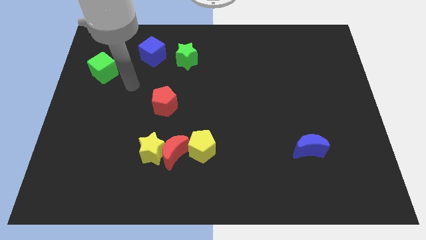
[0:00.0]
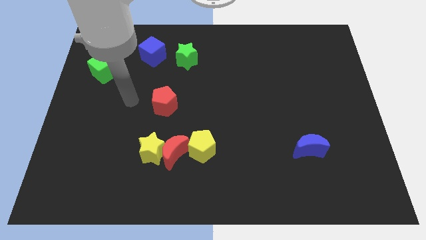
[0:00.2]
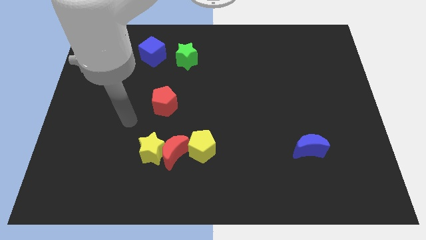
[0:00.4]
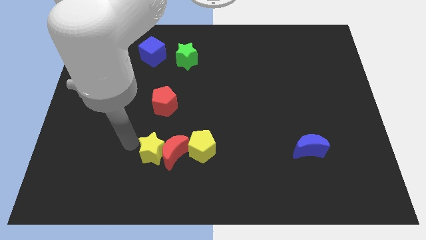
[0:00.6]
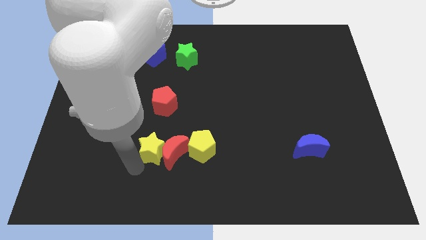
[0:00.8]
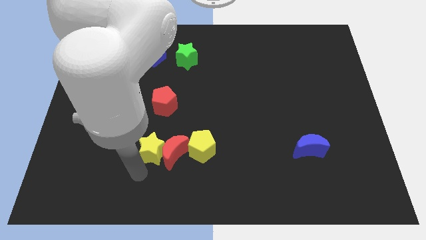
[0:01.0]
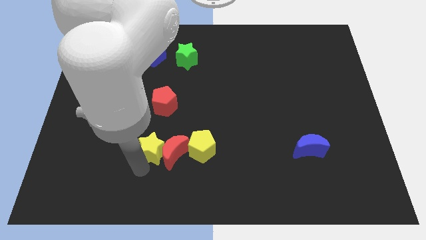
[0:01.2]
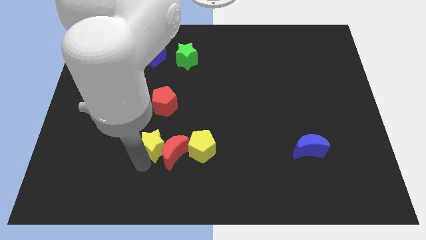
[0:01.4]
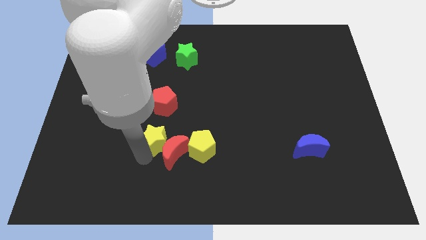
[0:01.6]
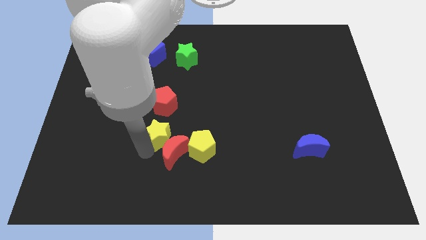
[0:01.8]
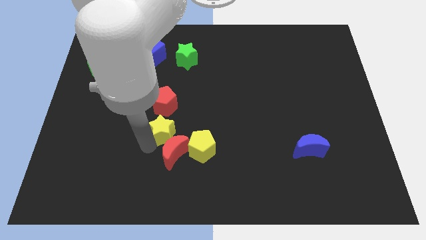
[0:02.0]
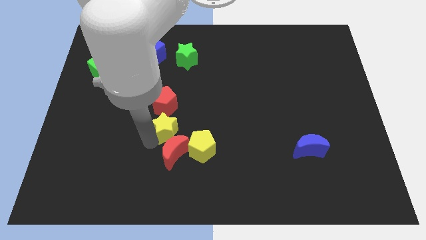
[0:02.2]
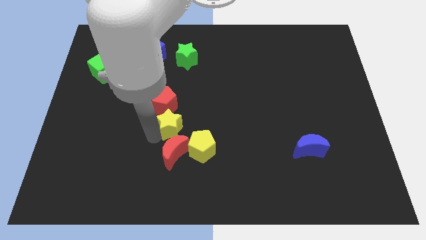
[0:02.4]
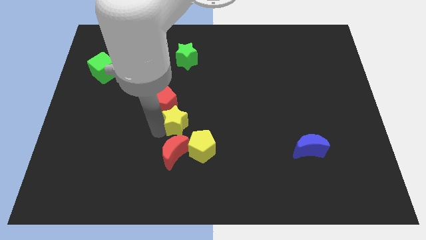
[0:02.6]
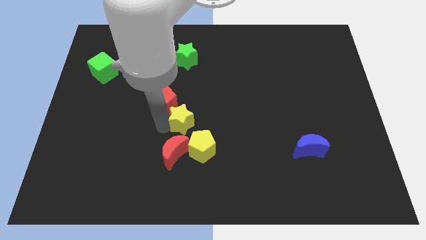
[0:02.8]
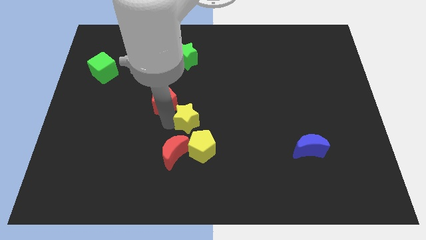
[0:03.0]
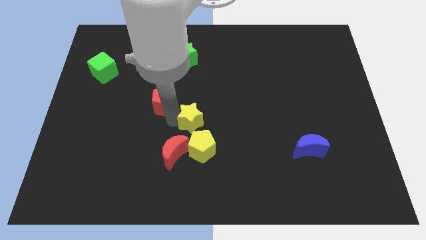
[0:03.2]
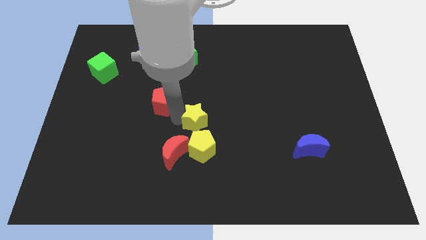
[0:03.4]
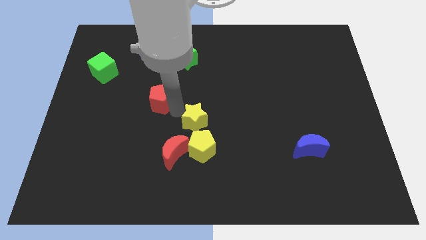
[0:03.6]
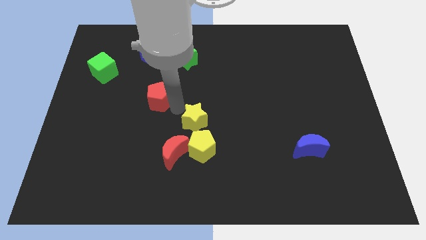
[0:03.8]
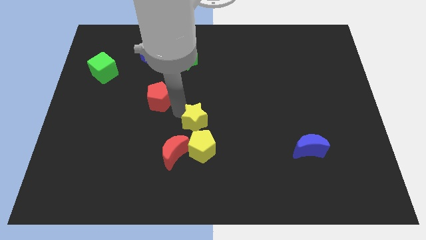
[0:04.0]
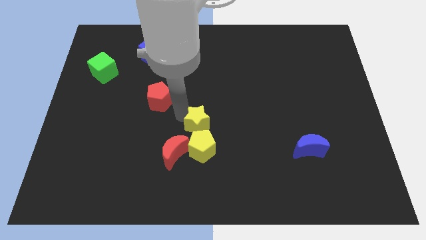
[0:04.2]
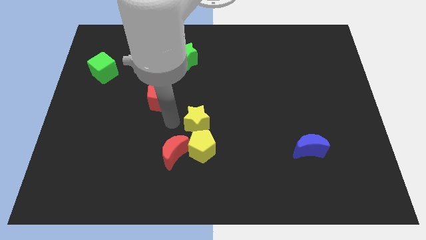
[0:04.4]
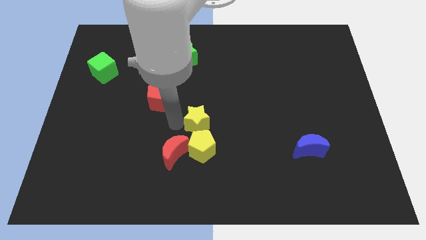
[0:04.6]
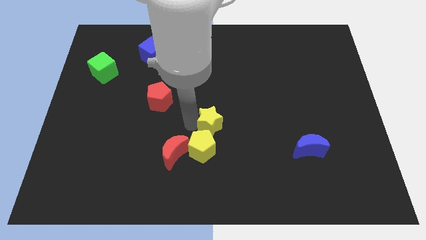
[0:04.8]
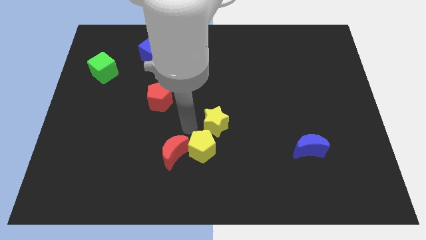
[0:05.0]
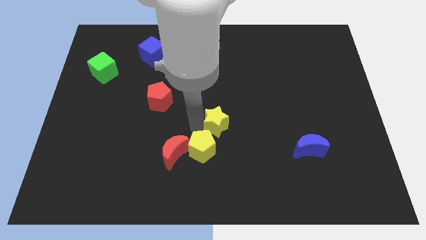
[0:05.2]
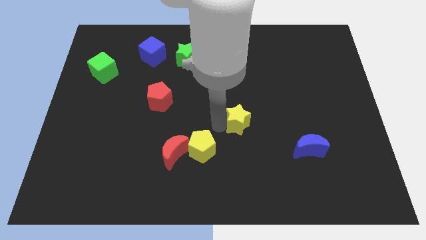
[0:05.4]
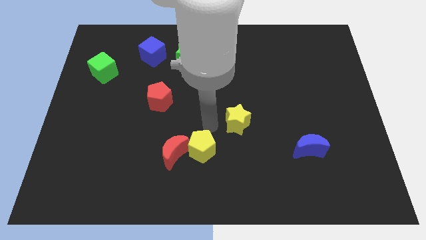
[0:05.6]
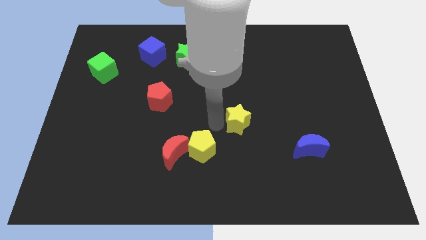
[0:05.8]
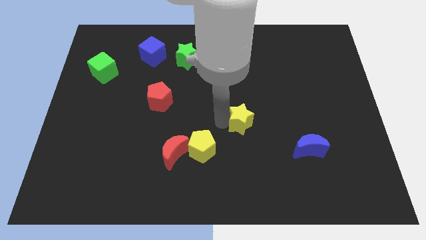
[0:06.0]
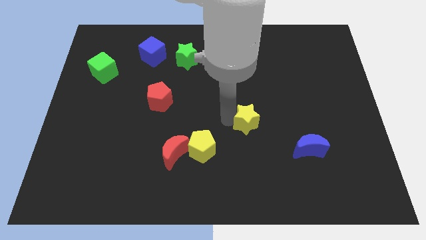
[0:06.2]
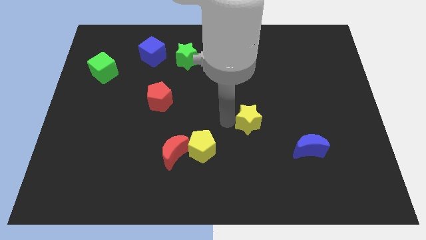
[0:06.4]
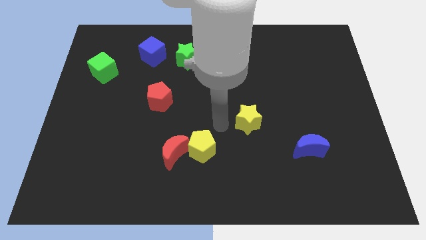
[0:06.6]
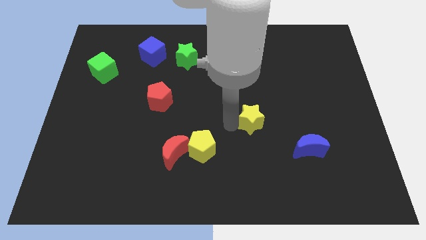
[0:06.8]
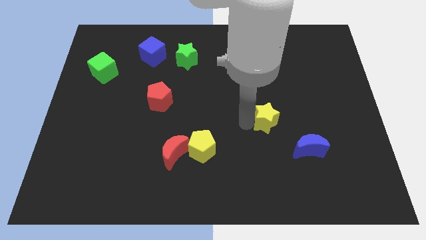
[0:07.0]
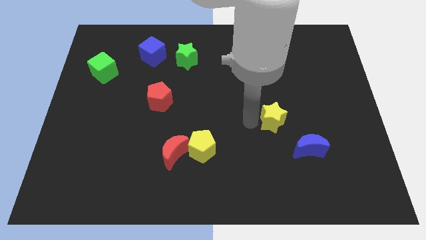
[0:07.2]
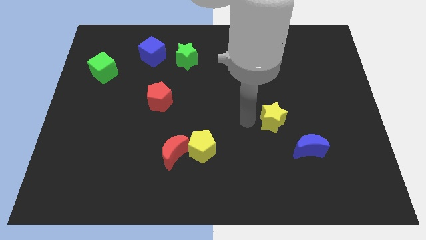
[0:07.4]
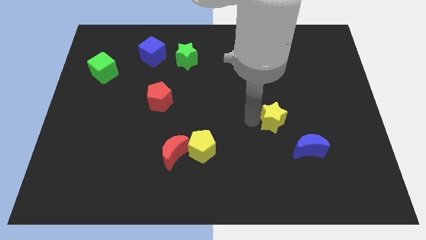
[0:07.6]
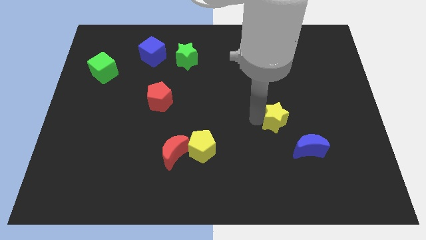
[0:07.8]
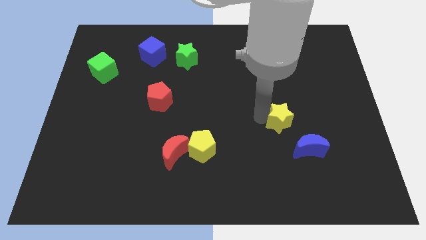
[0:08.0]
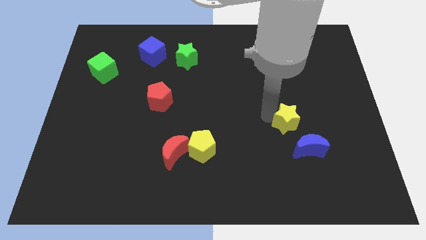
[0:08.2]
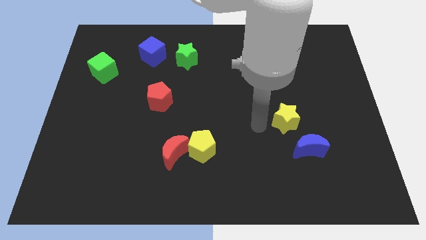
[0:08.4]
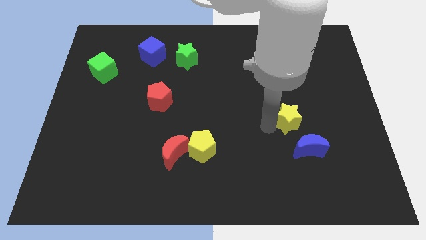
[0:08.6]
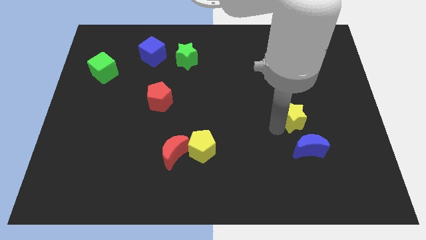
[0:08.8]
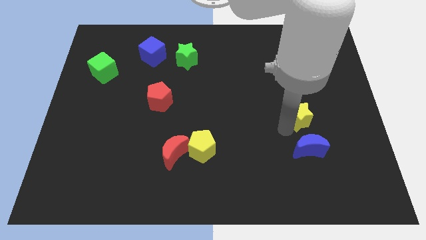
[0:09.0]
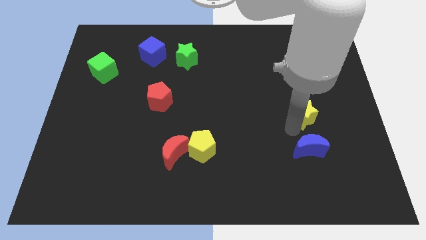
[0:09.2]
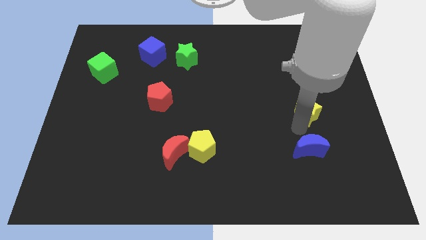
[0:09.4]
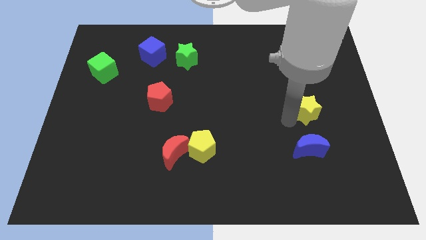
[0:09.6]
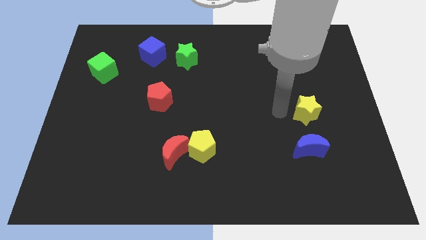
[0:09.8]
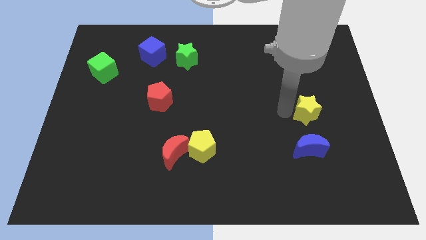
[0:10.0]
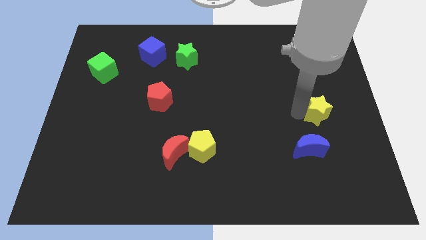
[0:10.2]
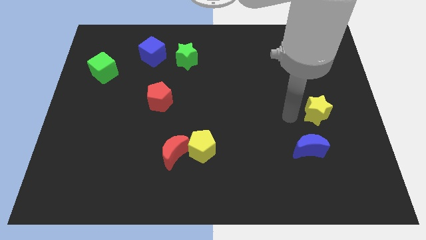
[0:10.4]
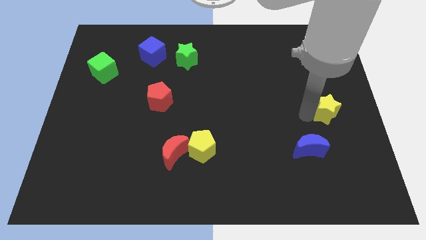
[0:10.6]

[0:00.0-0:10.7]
put the yellow star to the center right

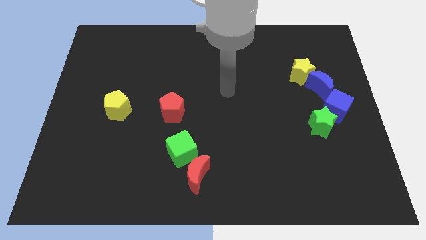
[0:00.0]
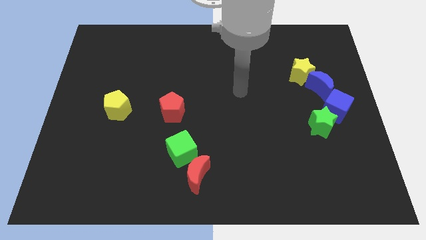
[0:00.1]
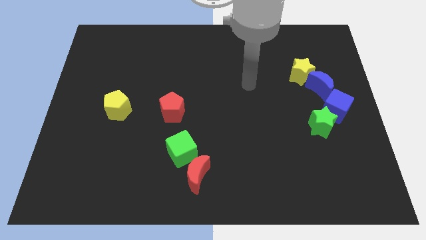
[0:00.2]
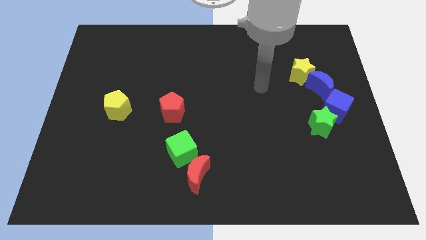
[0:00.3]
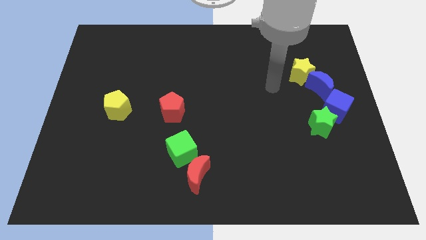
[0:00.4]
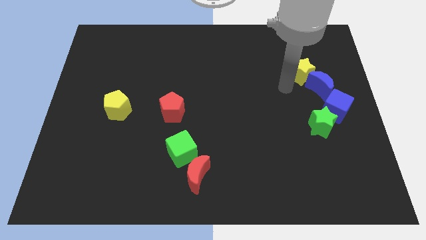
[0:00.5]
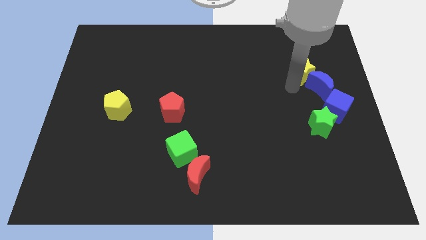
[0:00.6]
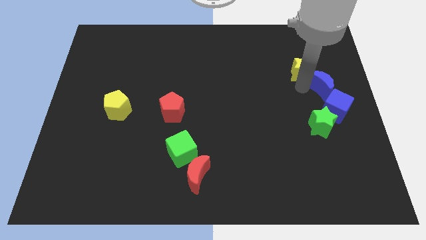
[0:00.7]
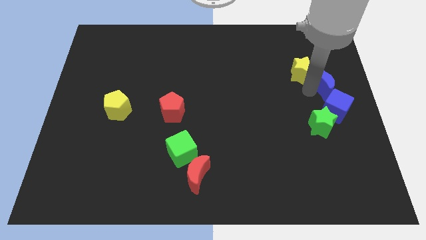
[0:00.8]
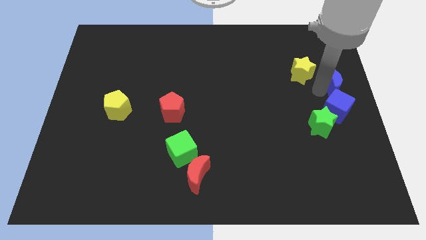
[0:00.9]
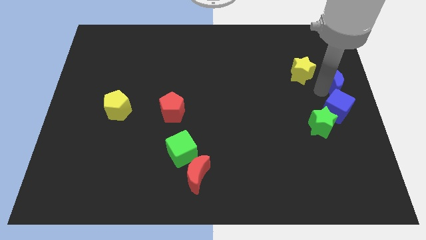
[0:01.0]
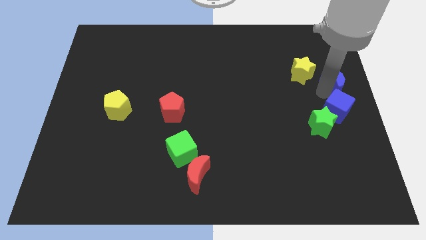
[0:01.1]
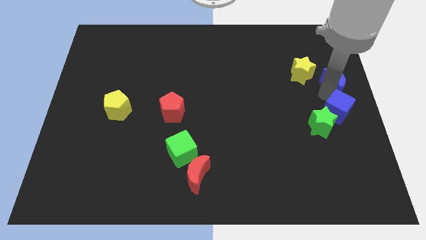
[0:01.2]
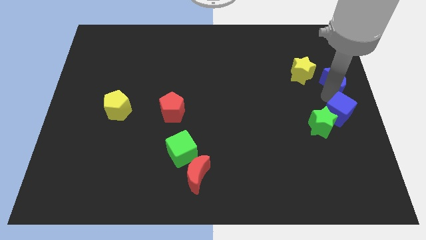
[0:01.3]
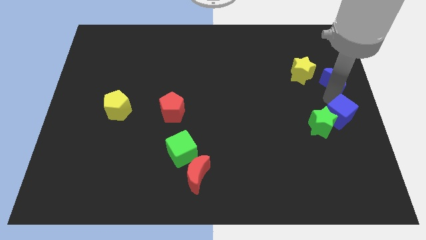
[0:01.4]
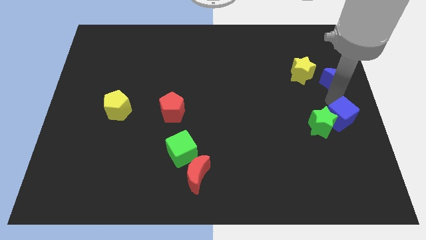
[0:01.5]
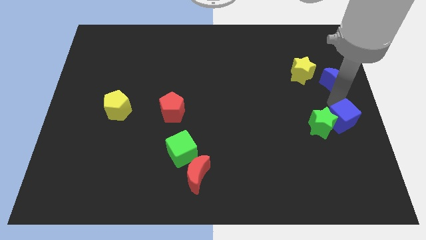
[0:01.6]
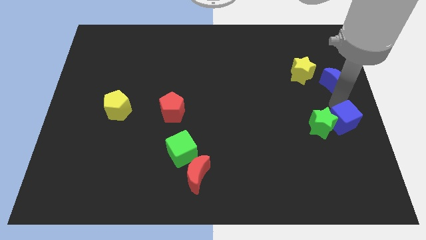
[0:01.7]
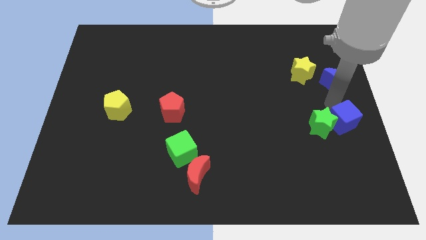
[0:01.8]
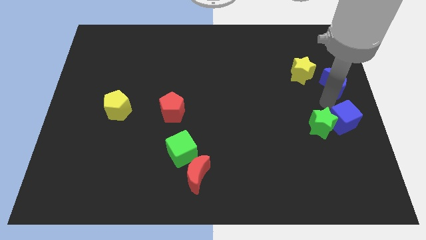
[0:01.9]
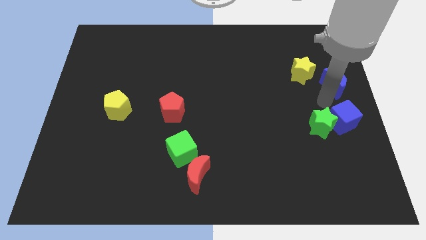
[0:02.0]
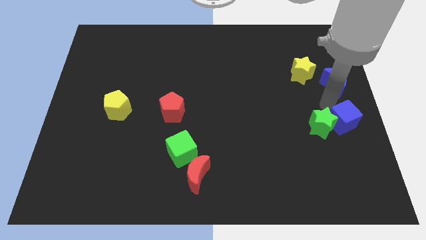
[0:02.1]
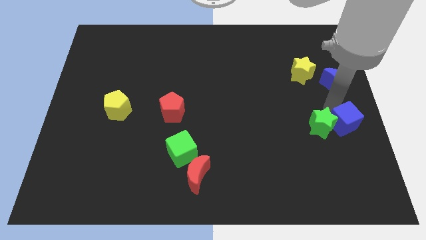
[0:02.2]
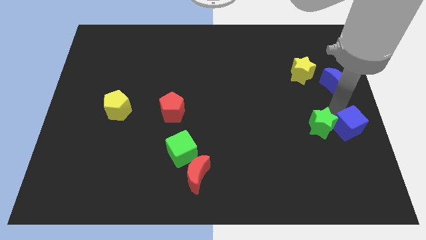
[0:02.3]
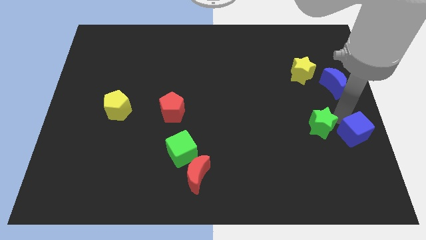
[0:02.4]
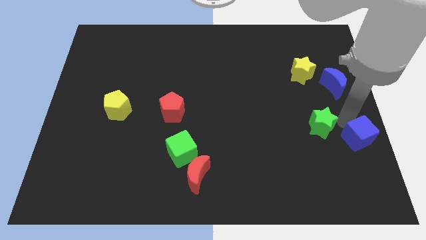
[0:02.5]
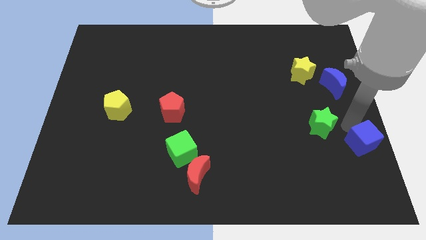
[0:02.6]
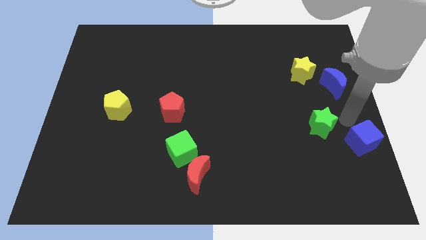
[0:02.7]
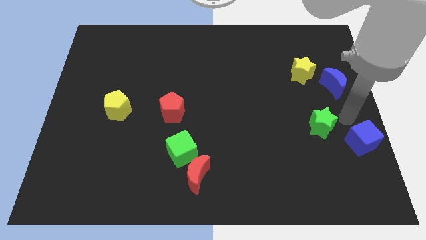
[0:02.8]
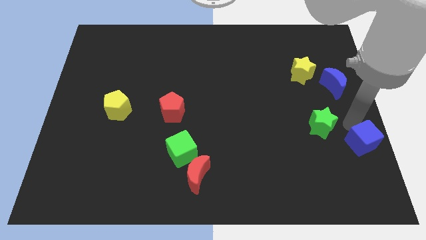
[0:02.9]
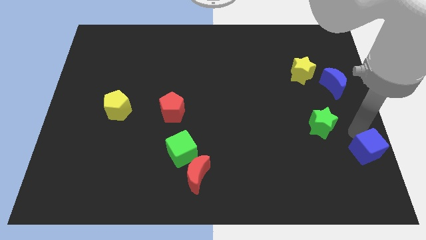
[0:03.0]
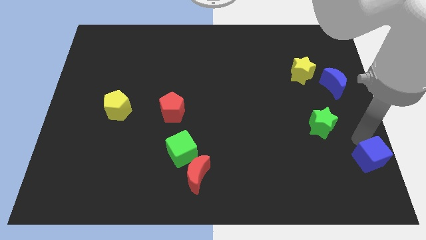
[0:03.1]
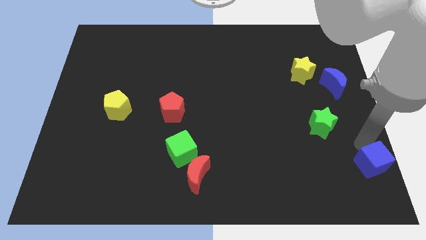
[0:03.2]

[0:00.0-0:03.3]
put the blue cube to the bottom right corner
